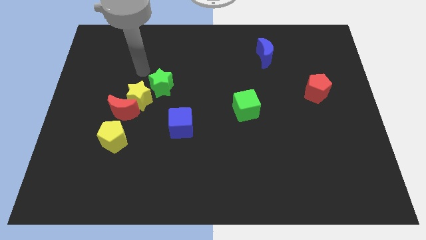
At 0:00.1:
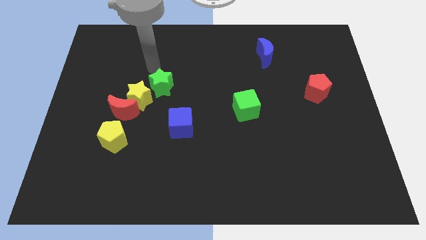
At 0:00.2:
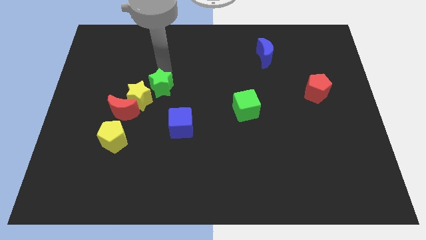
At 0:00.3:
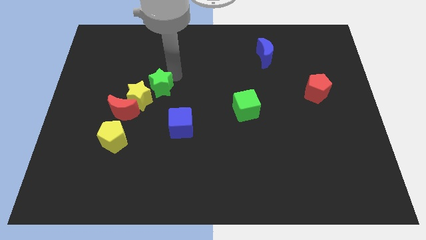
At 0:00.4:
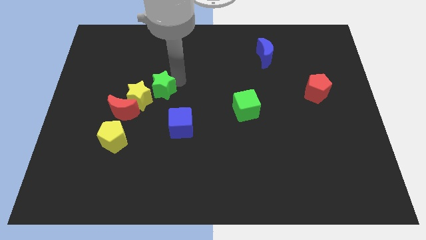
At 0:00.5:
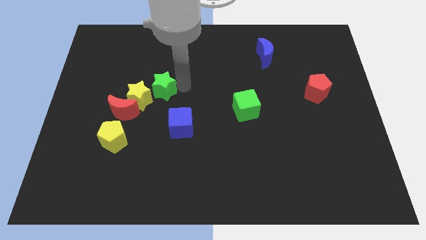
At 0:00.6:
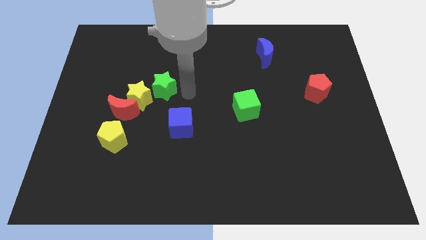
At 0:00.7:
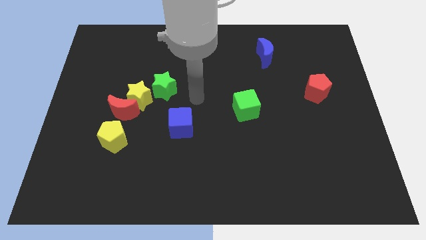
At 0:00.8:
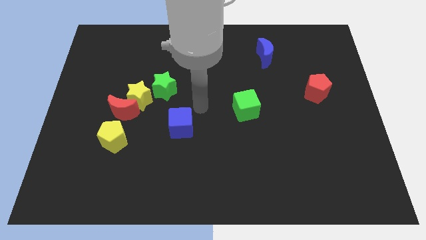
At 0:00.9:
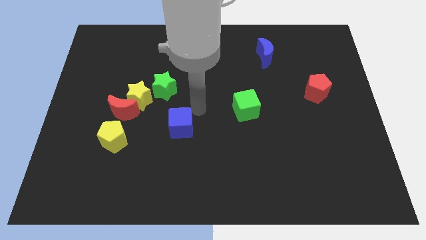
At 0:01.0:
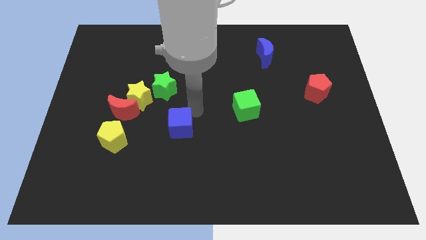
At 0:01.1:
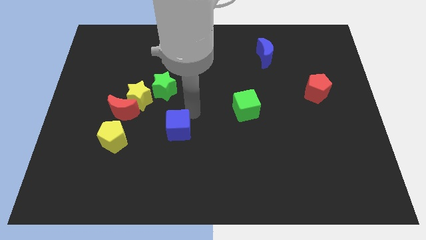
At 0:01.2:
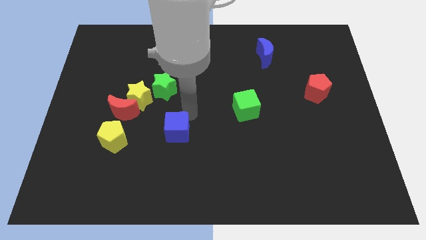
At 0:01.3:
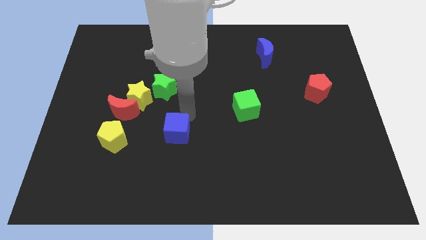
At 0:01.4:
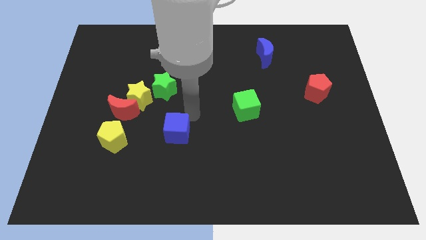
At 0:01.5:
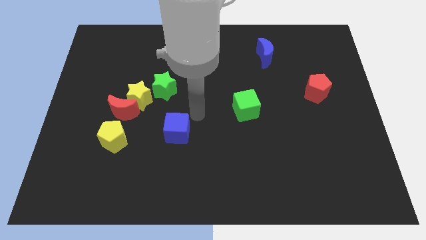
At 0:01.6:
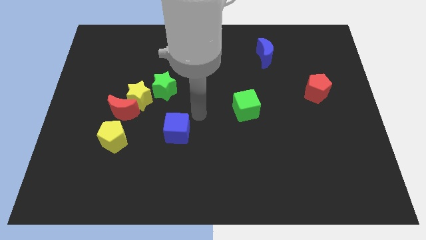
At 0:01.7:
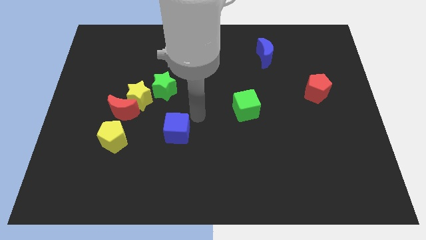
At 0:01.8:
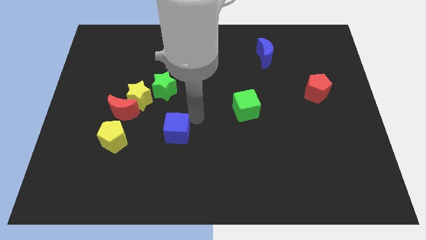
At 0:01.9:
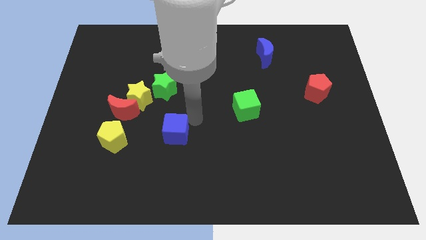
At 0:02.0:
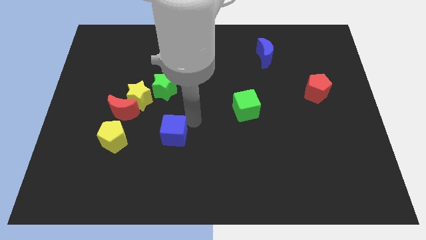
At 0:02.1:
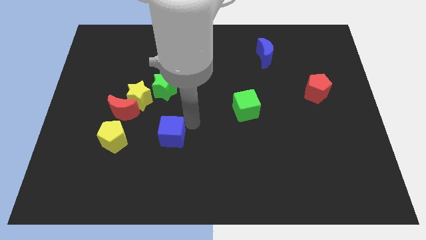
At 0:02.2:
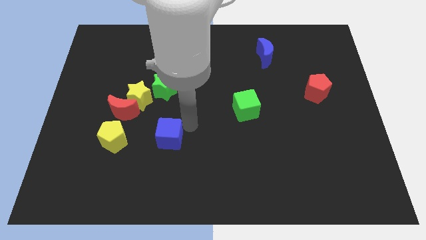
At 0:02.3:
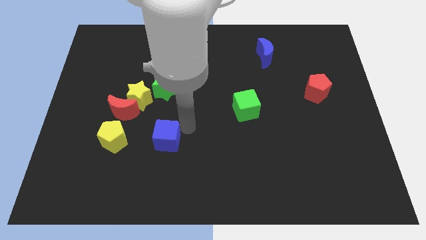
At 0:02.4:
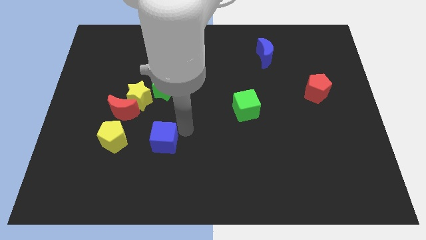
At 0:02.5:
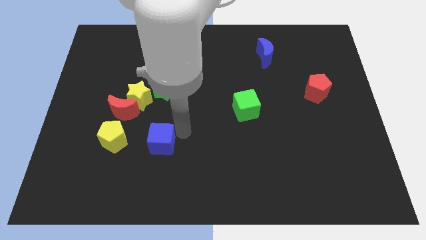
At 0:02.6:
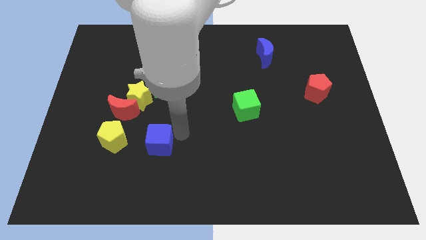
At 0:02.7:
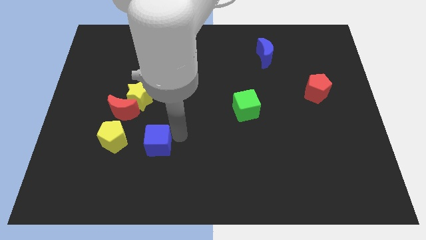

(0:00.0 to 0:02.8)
push the blue cube down and left somewhat

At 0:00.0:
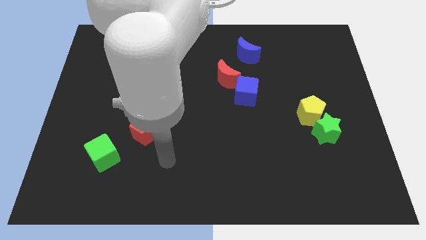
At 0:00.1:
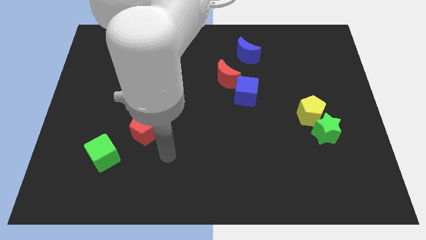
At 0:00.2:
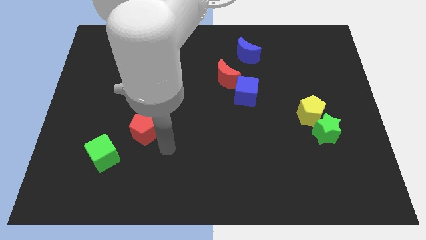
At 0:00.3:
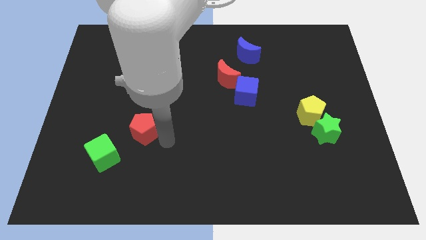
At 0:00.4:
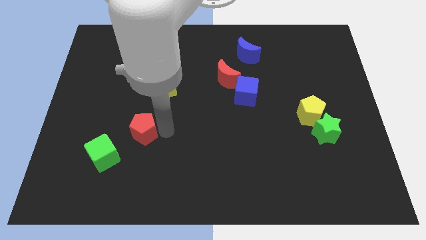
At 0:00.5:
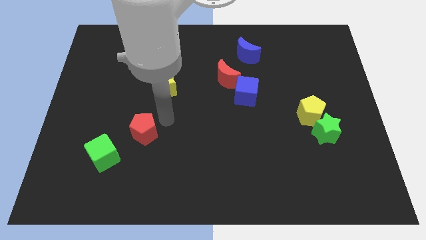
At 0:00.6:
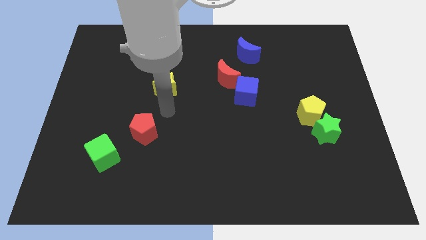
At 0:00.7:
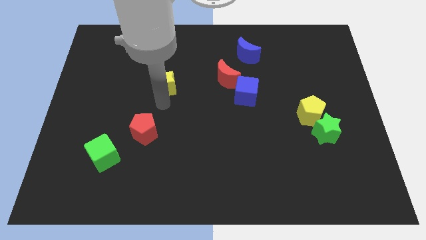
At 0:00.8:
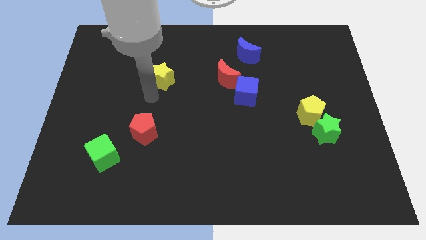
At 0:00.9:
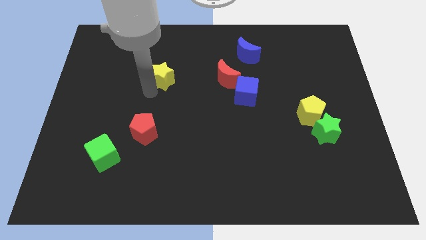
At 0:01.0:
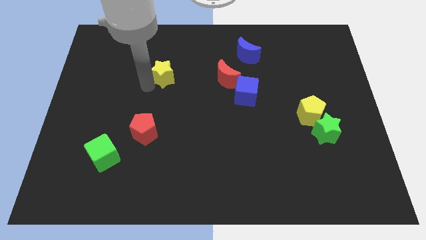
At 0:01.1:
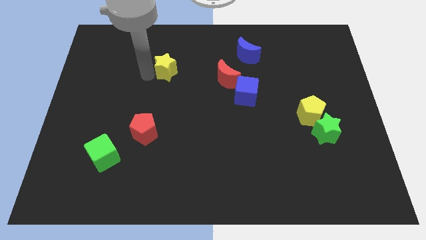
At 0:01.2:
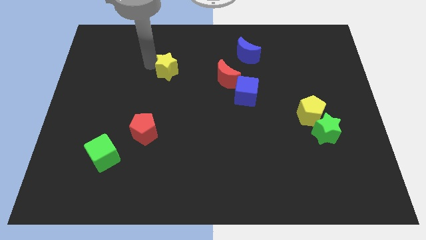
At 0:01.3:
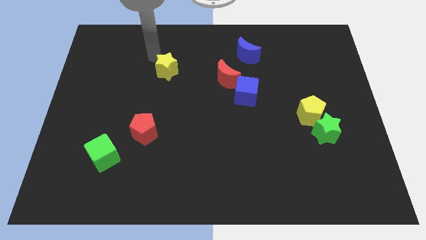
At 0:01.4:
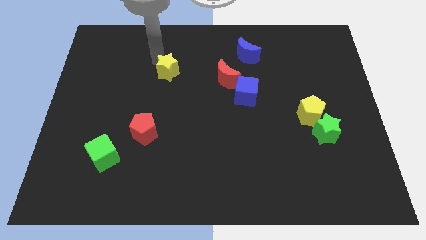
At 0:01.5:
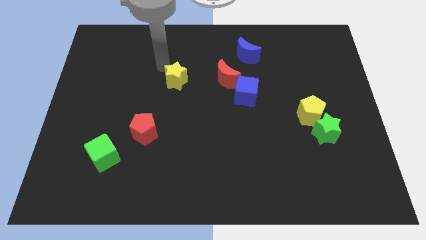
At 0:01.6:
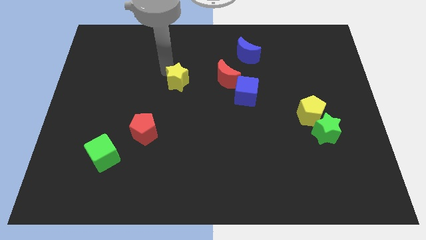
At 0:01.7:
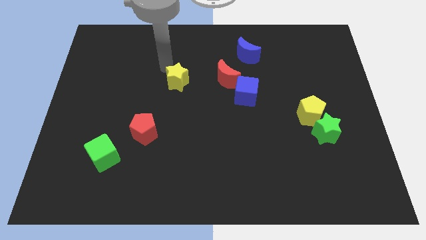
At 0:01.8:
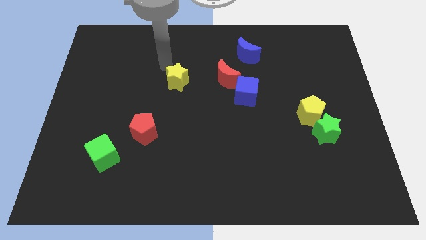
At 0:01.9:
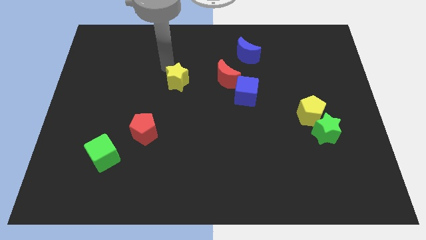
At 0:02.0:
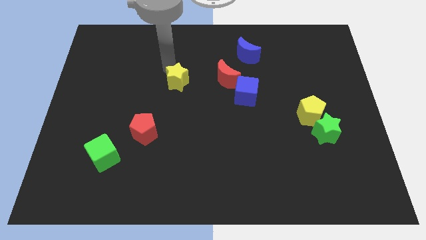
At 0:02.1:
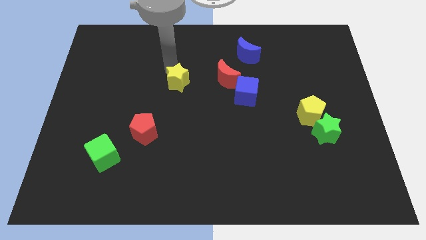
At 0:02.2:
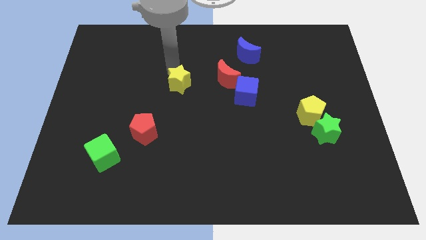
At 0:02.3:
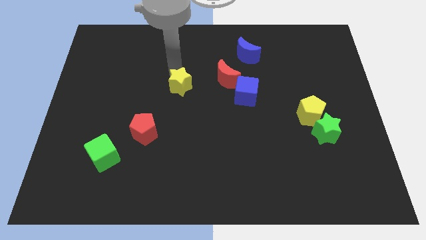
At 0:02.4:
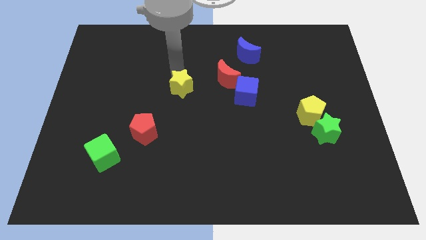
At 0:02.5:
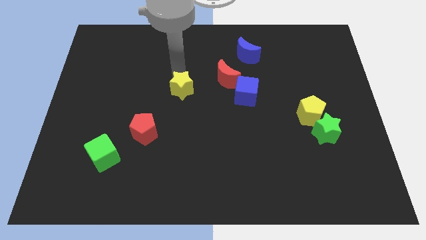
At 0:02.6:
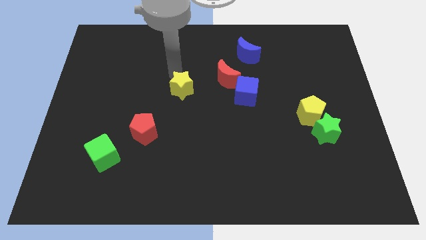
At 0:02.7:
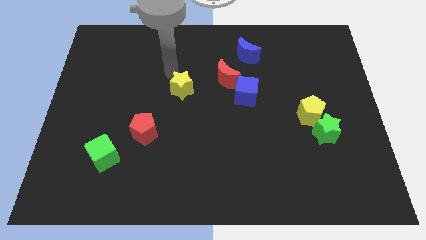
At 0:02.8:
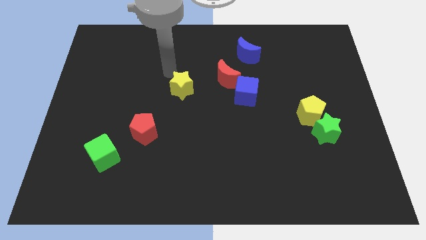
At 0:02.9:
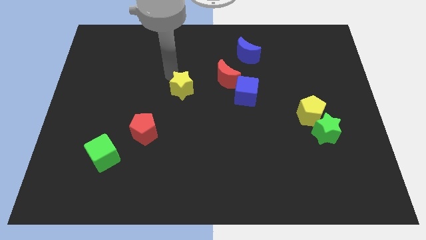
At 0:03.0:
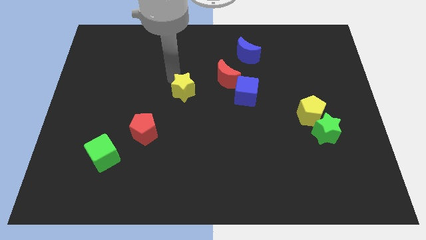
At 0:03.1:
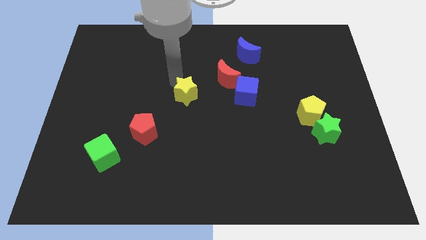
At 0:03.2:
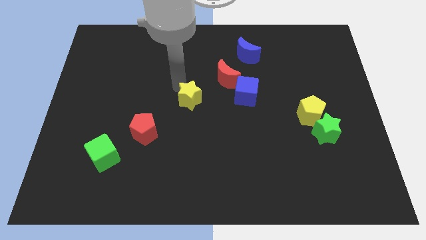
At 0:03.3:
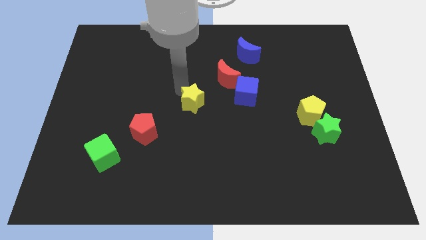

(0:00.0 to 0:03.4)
slide the yellow star down and to the right somewhat

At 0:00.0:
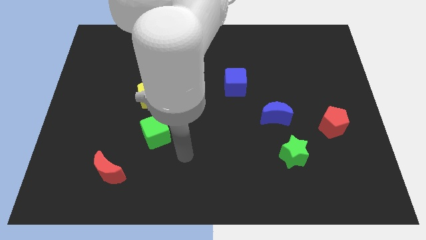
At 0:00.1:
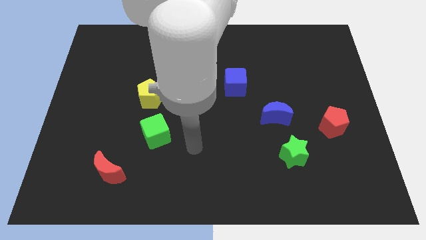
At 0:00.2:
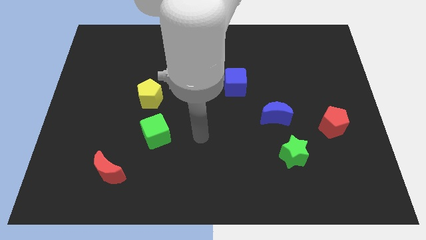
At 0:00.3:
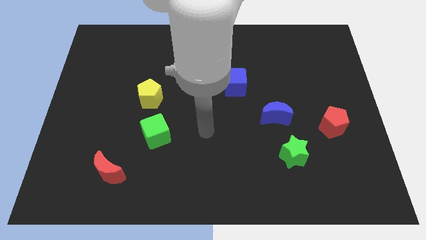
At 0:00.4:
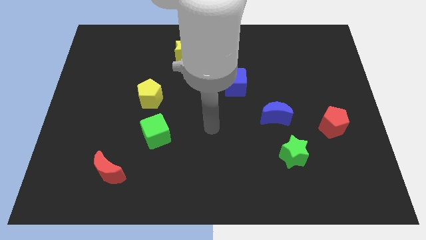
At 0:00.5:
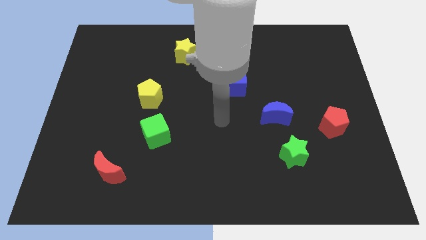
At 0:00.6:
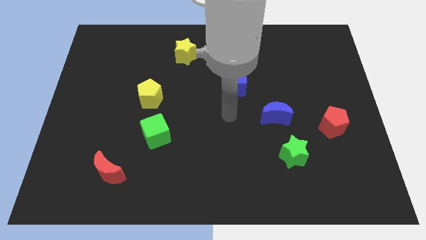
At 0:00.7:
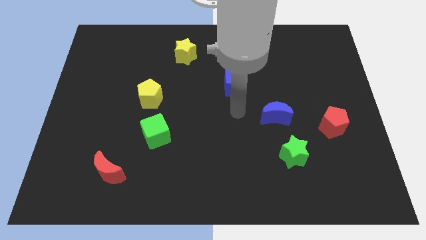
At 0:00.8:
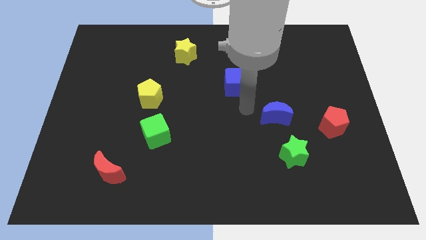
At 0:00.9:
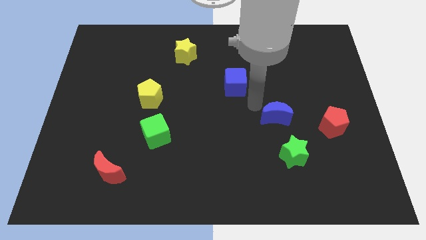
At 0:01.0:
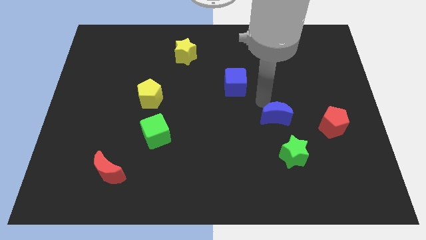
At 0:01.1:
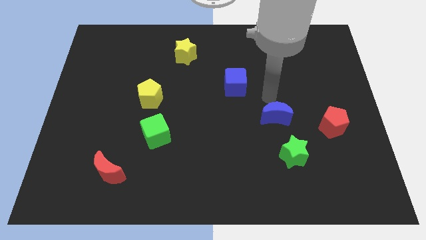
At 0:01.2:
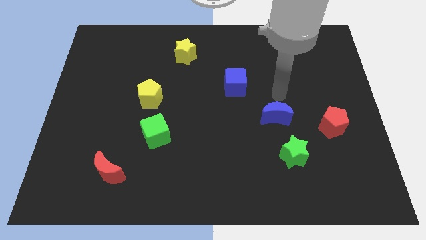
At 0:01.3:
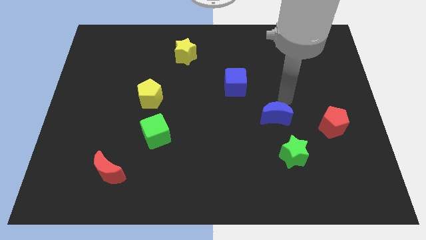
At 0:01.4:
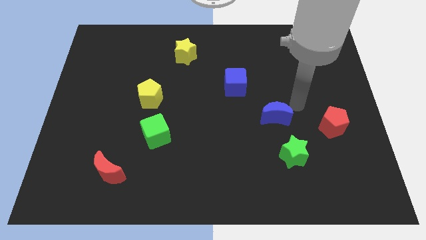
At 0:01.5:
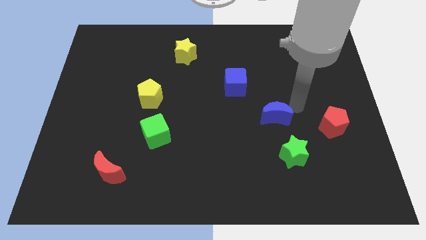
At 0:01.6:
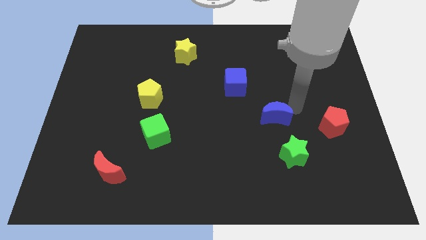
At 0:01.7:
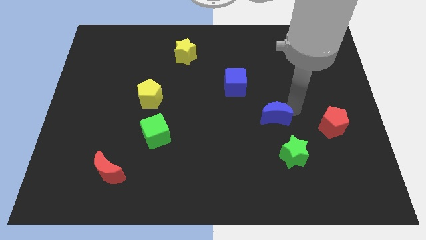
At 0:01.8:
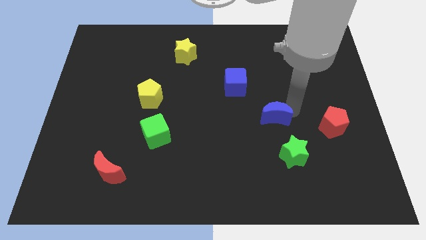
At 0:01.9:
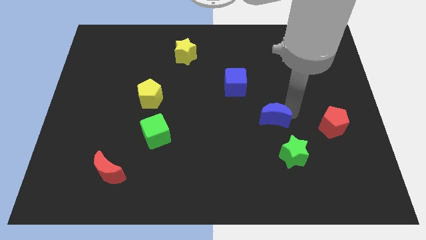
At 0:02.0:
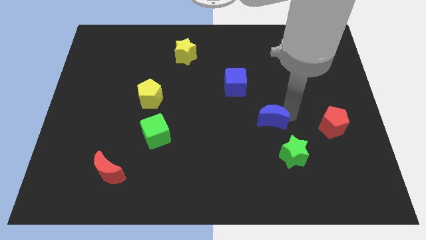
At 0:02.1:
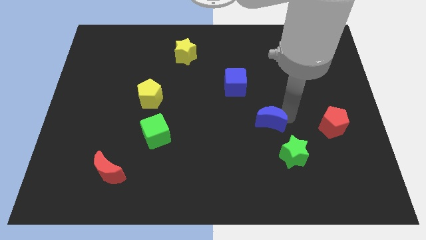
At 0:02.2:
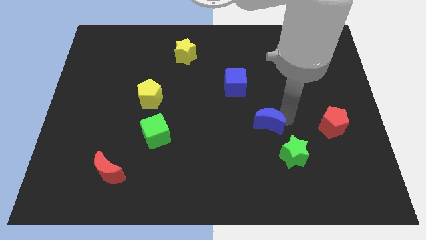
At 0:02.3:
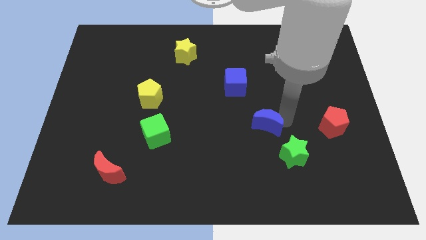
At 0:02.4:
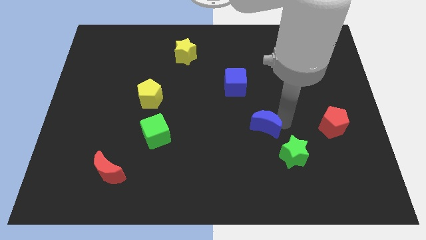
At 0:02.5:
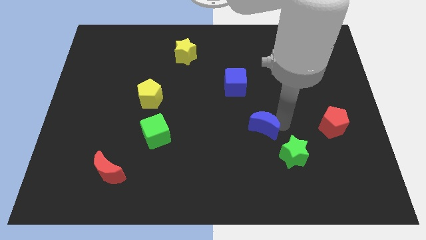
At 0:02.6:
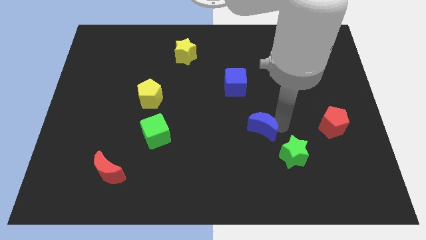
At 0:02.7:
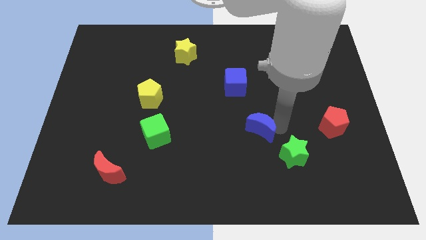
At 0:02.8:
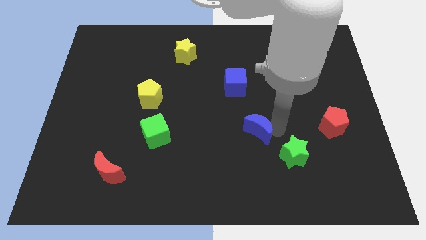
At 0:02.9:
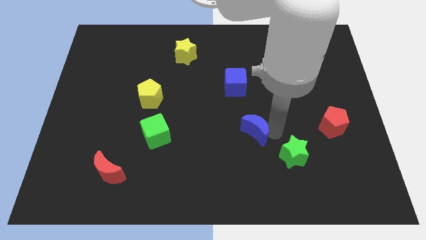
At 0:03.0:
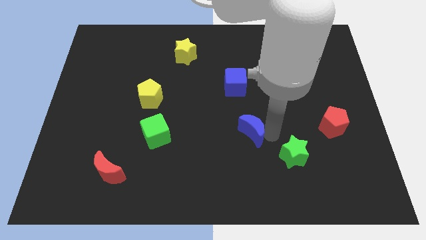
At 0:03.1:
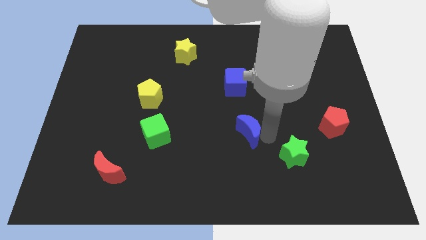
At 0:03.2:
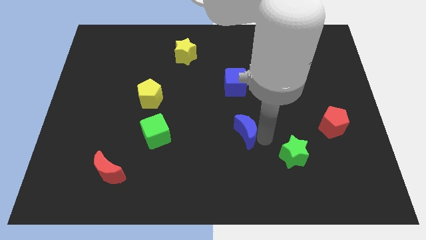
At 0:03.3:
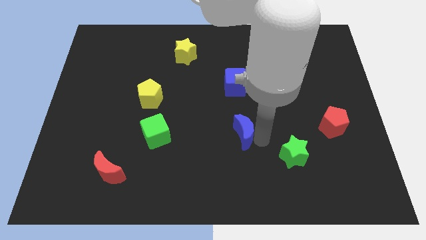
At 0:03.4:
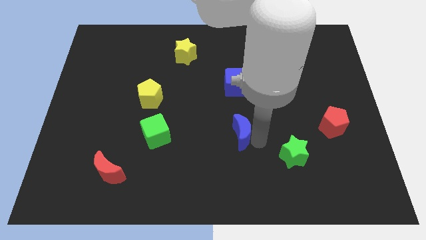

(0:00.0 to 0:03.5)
slightly slide the blue moon left
